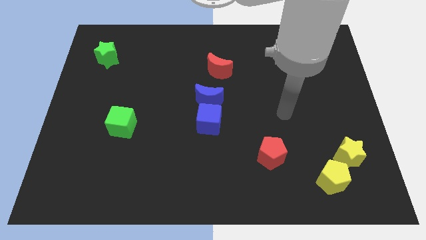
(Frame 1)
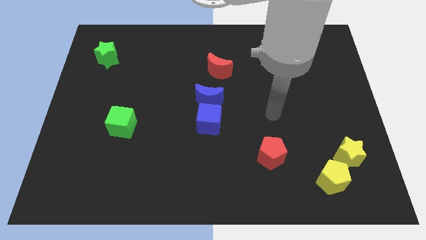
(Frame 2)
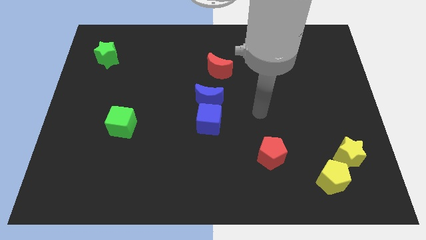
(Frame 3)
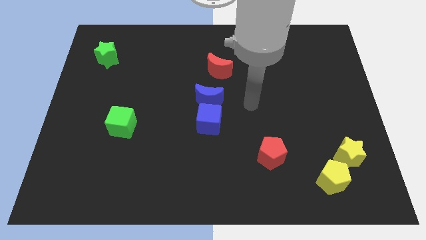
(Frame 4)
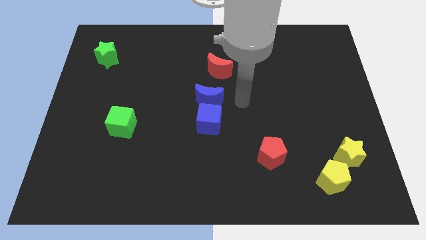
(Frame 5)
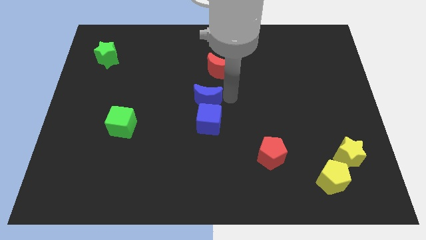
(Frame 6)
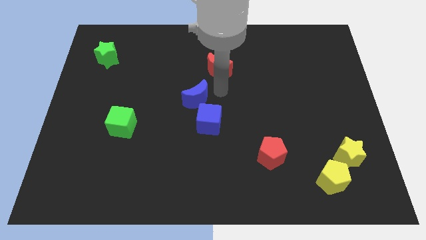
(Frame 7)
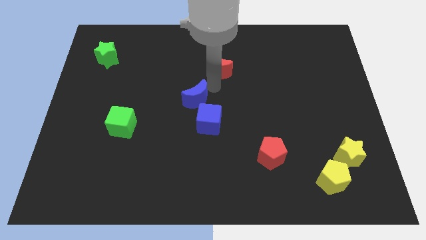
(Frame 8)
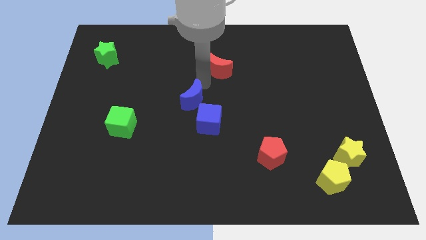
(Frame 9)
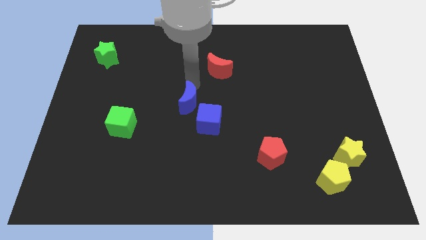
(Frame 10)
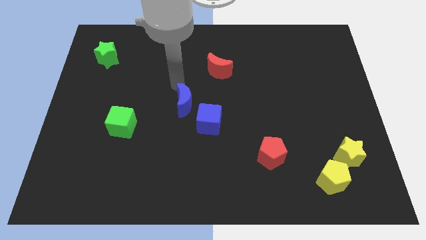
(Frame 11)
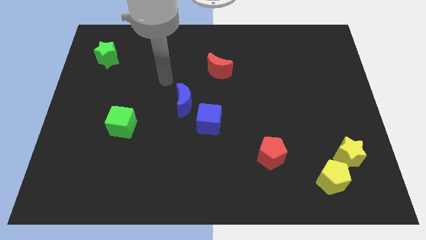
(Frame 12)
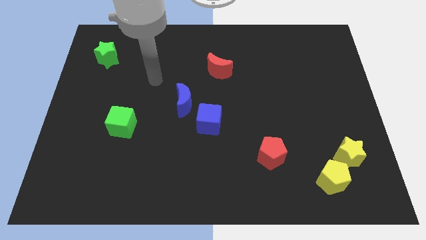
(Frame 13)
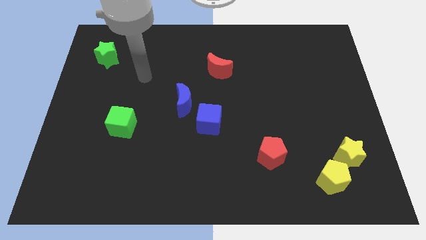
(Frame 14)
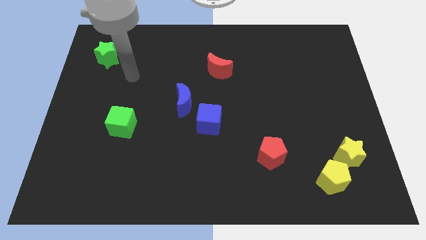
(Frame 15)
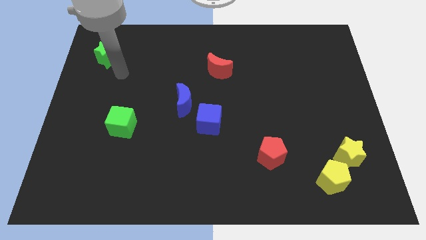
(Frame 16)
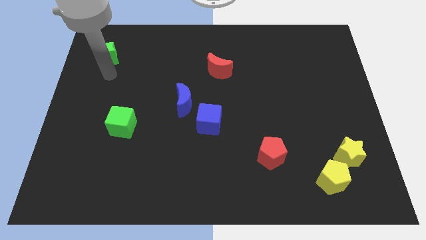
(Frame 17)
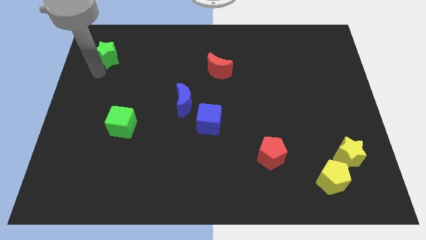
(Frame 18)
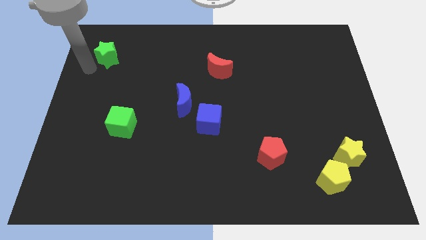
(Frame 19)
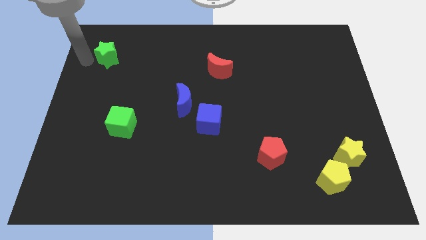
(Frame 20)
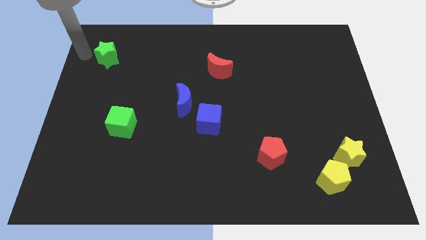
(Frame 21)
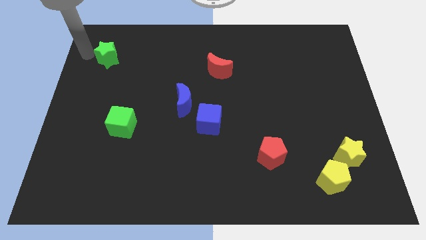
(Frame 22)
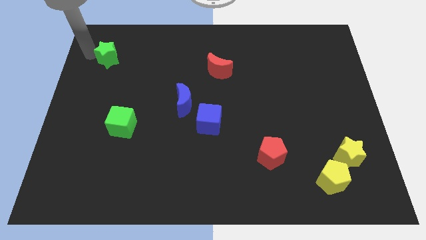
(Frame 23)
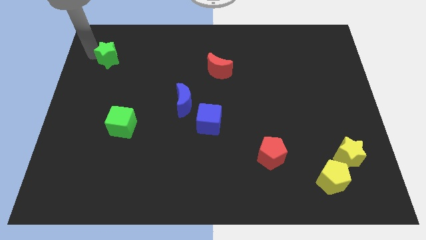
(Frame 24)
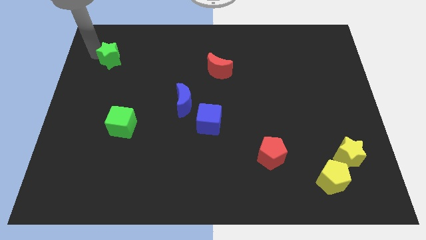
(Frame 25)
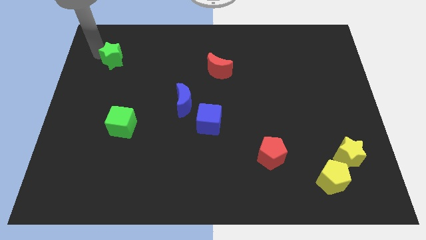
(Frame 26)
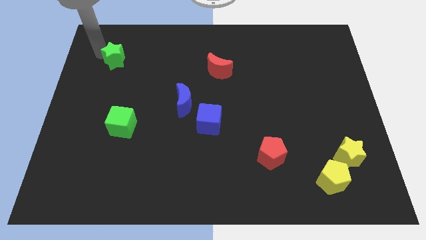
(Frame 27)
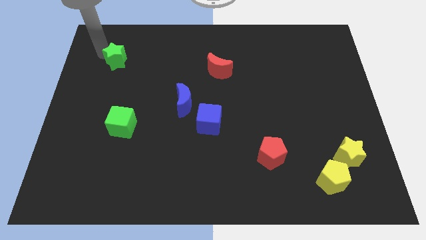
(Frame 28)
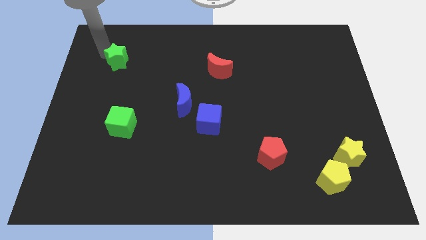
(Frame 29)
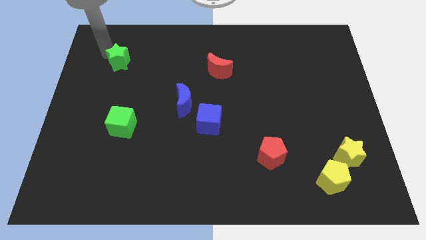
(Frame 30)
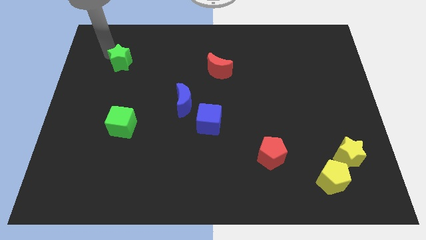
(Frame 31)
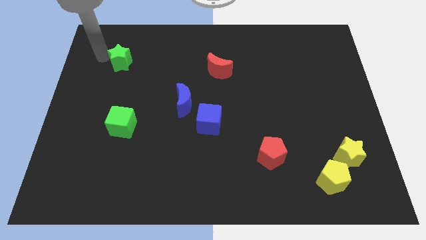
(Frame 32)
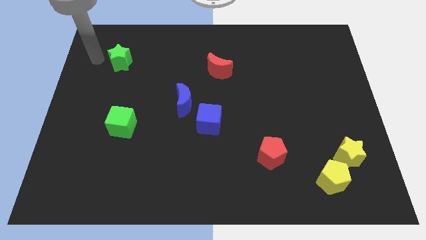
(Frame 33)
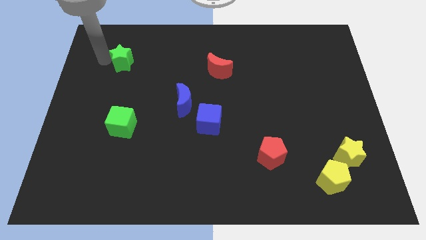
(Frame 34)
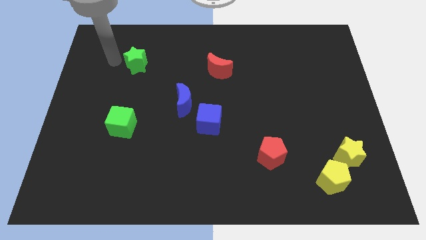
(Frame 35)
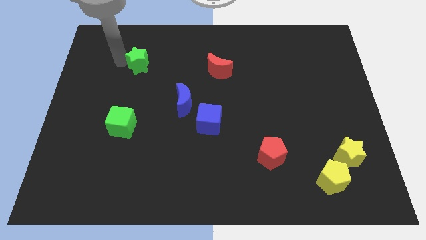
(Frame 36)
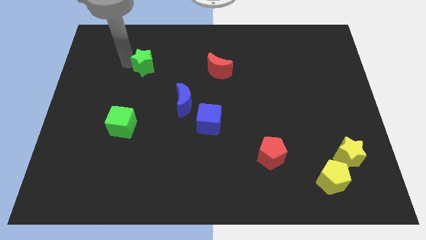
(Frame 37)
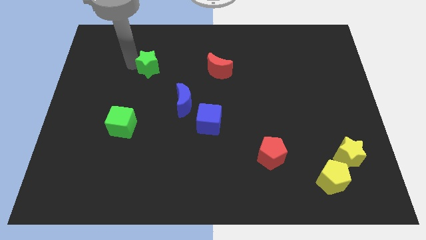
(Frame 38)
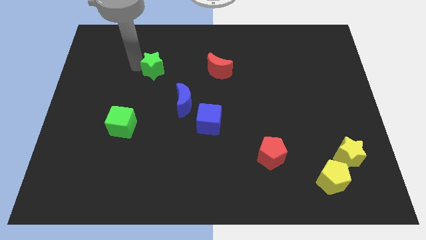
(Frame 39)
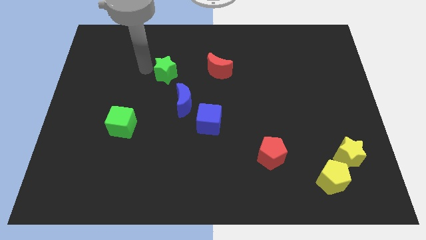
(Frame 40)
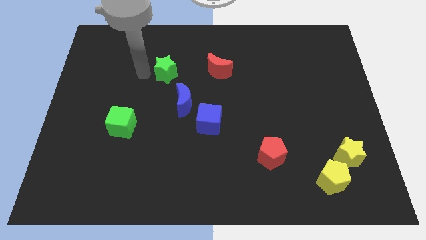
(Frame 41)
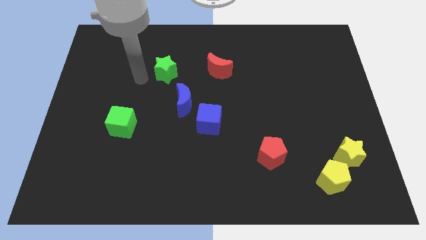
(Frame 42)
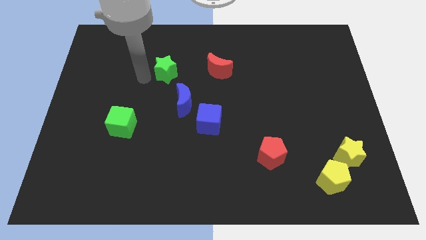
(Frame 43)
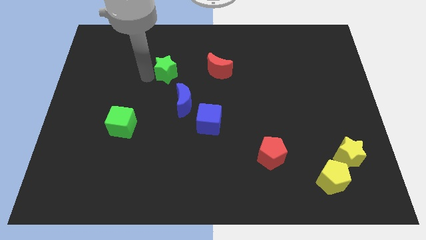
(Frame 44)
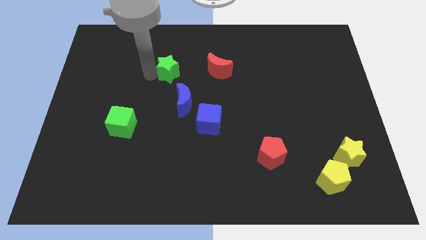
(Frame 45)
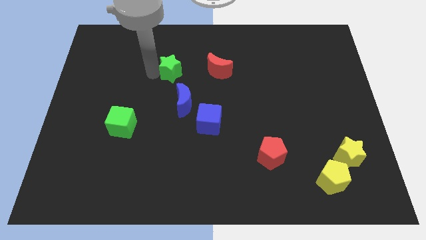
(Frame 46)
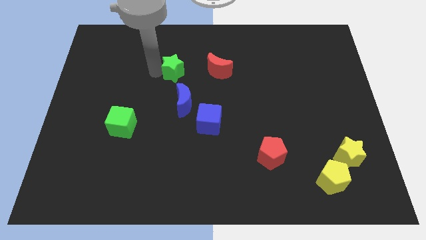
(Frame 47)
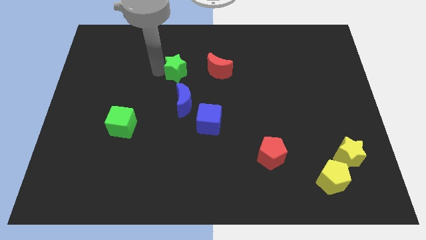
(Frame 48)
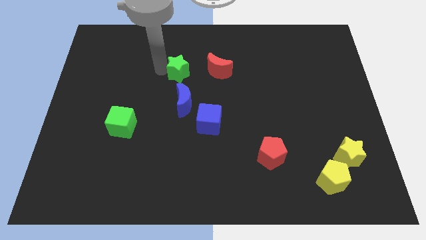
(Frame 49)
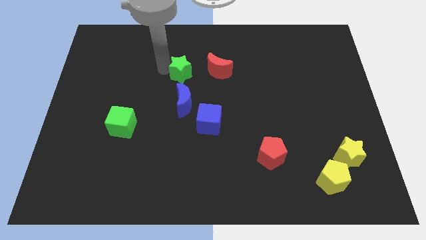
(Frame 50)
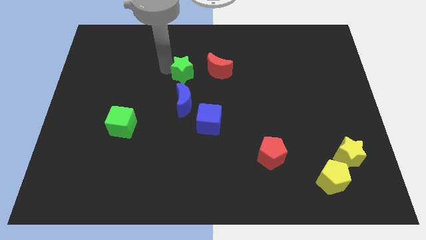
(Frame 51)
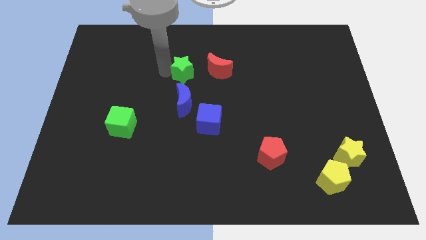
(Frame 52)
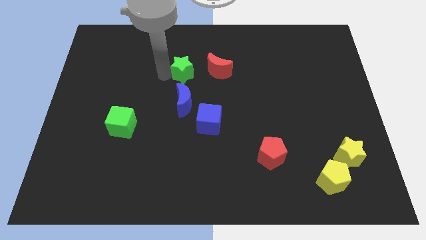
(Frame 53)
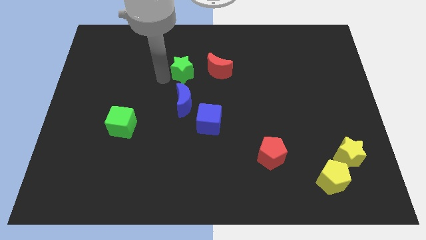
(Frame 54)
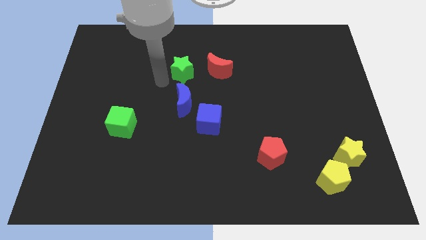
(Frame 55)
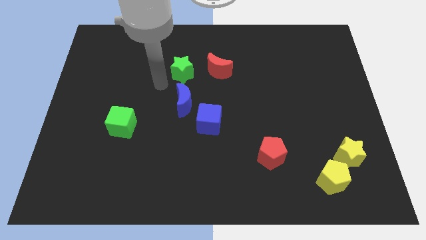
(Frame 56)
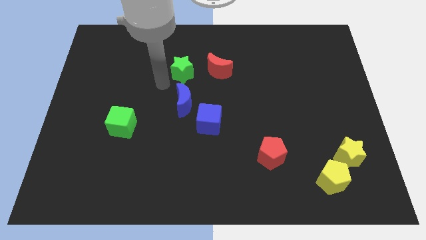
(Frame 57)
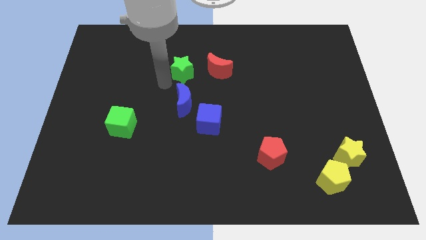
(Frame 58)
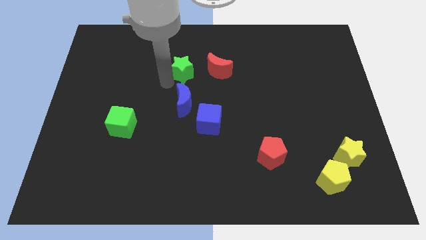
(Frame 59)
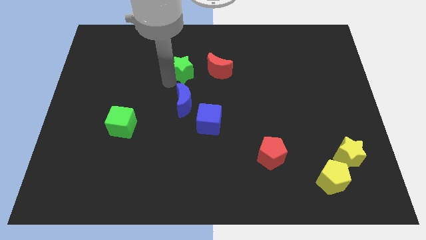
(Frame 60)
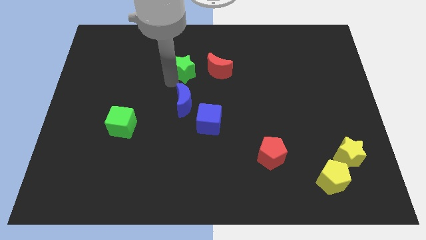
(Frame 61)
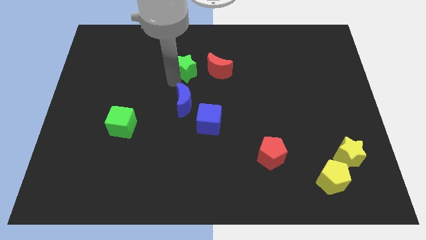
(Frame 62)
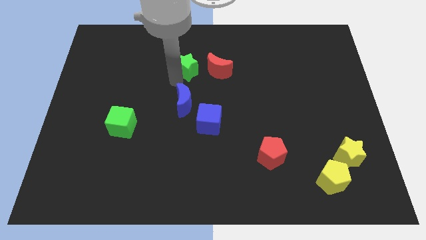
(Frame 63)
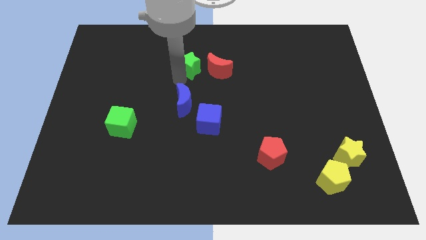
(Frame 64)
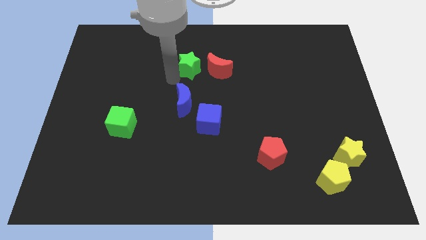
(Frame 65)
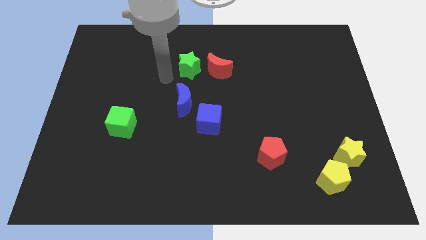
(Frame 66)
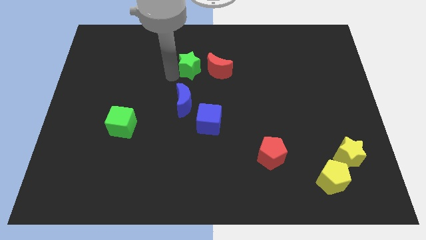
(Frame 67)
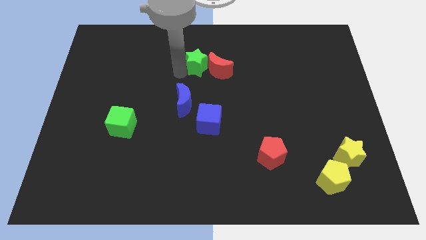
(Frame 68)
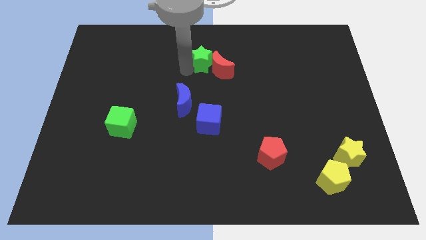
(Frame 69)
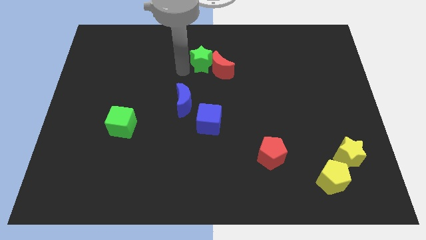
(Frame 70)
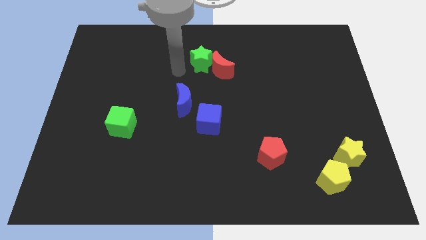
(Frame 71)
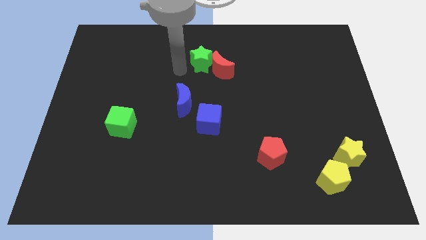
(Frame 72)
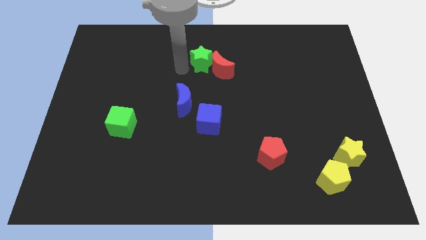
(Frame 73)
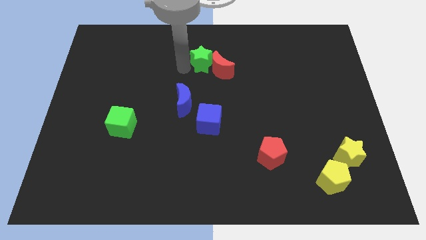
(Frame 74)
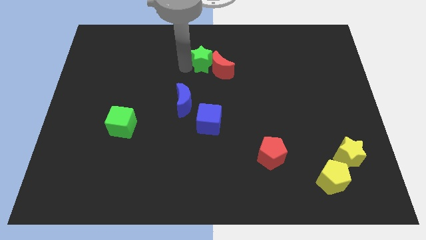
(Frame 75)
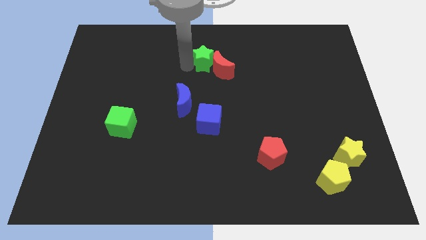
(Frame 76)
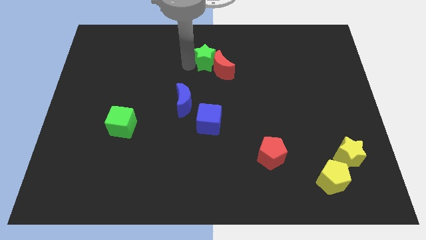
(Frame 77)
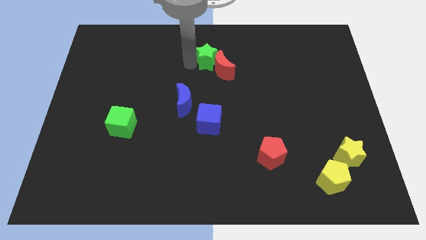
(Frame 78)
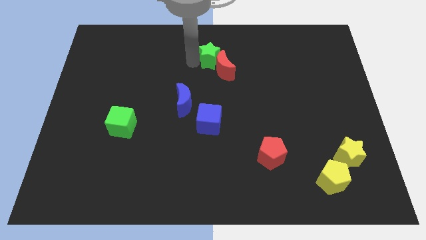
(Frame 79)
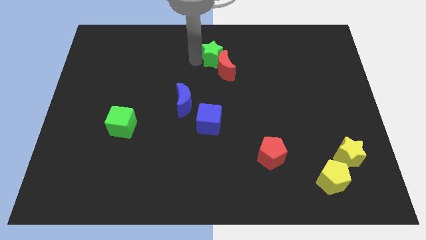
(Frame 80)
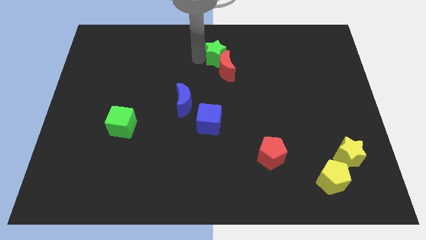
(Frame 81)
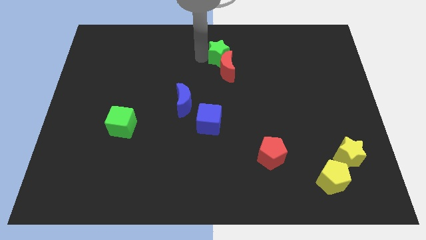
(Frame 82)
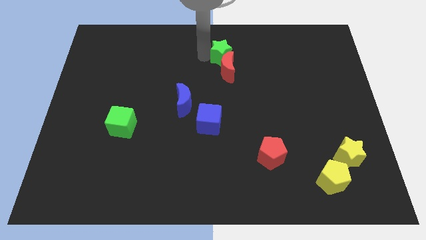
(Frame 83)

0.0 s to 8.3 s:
push the green star to the top right of the red moon
